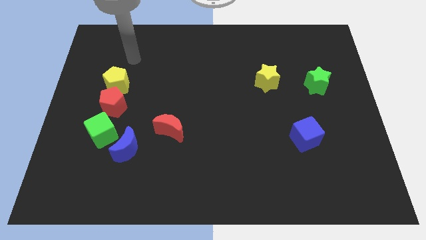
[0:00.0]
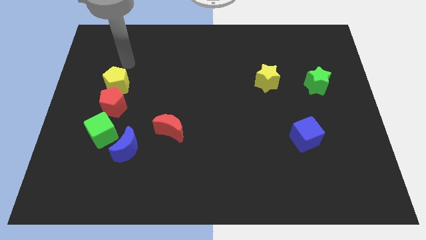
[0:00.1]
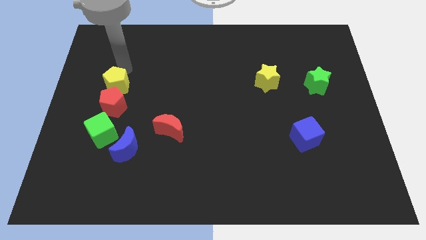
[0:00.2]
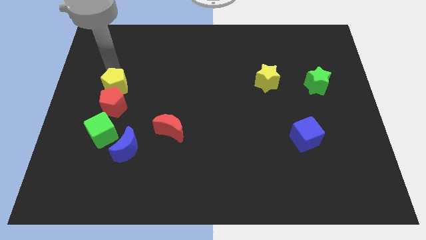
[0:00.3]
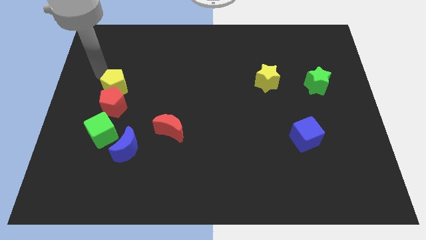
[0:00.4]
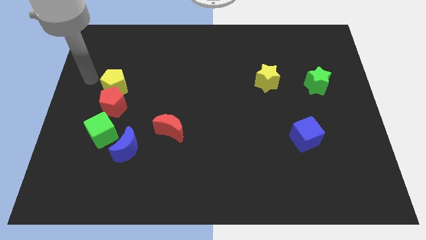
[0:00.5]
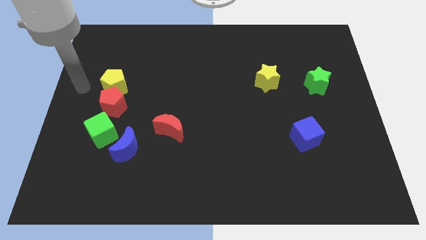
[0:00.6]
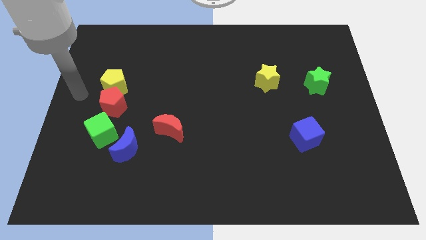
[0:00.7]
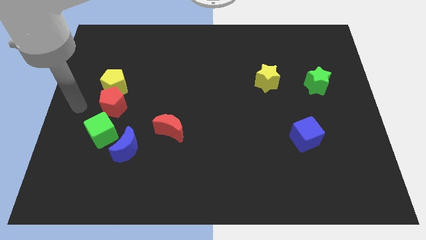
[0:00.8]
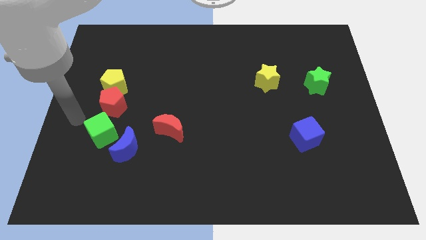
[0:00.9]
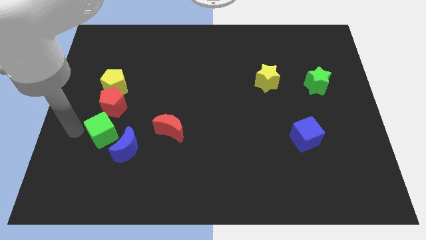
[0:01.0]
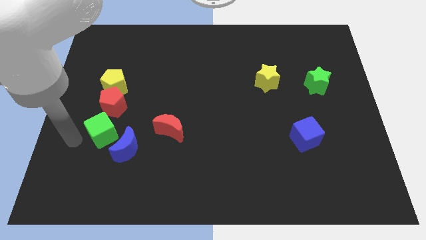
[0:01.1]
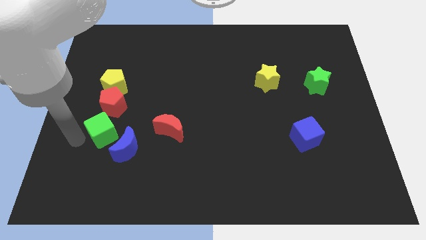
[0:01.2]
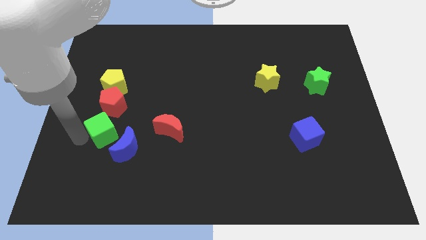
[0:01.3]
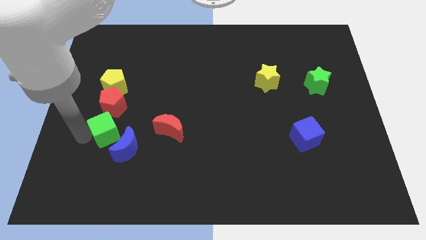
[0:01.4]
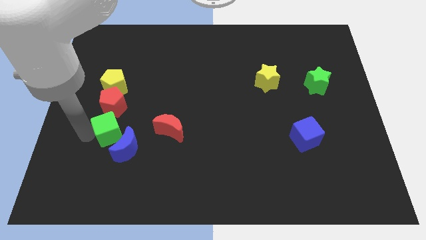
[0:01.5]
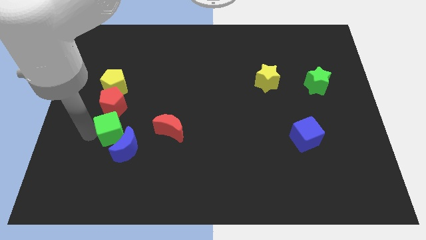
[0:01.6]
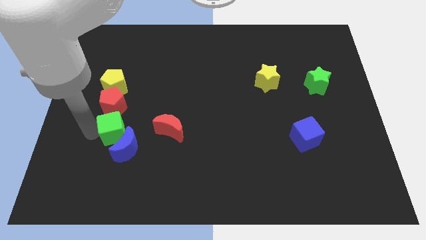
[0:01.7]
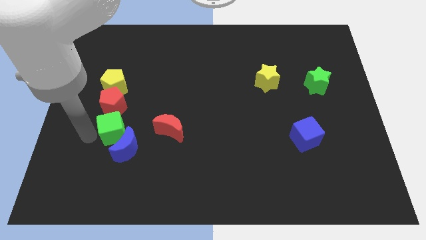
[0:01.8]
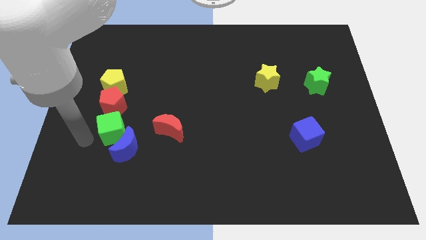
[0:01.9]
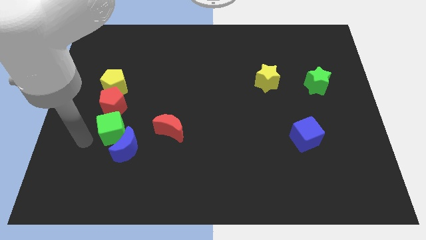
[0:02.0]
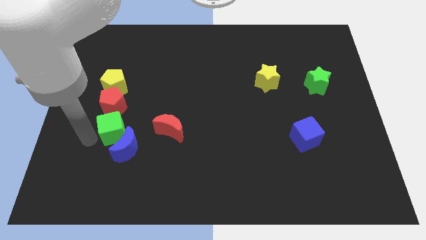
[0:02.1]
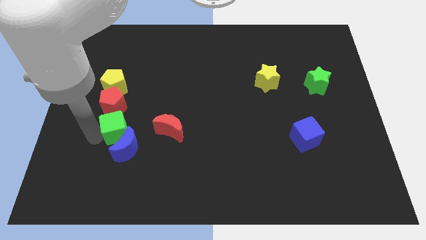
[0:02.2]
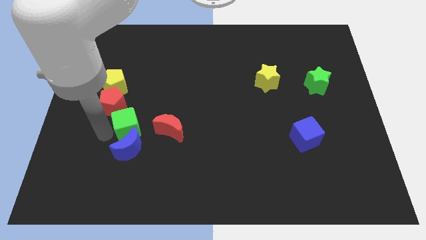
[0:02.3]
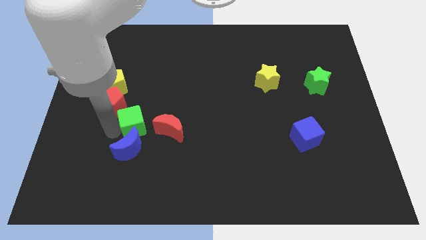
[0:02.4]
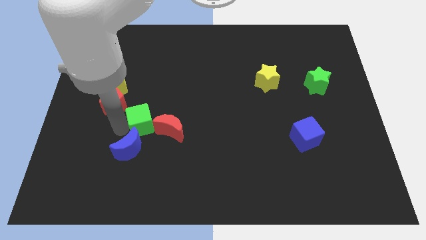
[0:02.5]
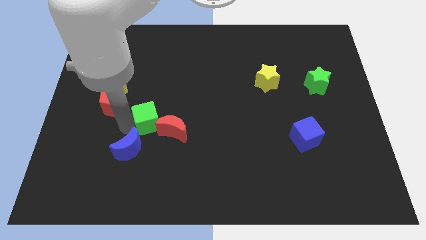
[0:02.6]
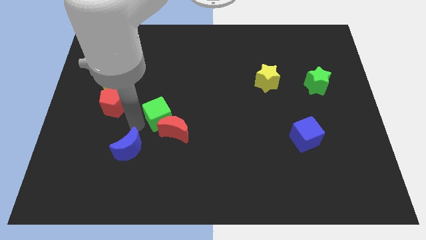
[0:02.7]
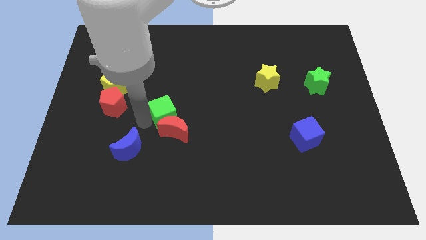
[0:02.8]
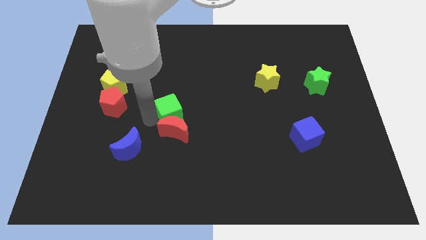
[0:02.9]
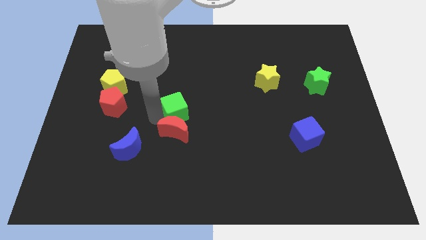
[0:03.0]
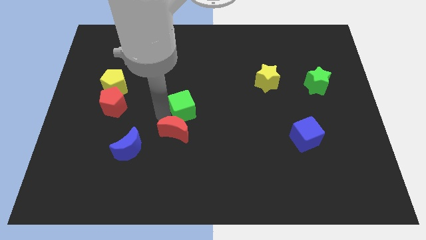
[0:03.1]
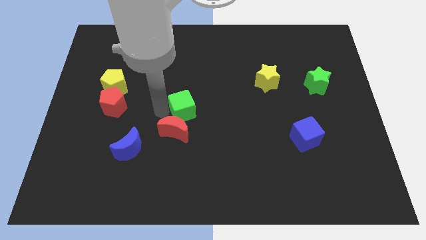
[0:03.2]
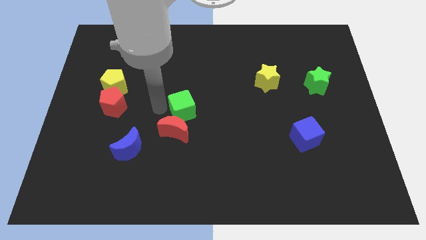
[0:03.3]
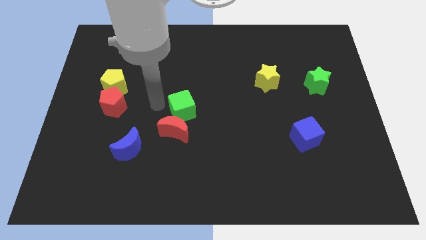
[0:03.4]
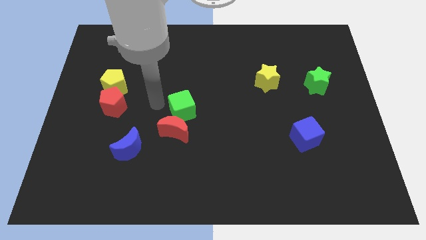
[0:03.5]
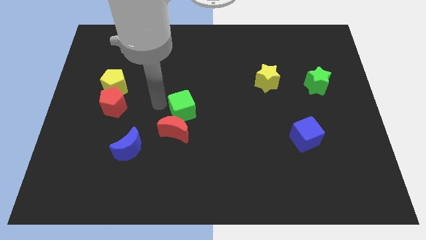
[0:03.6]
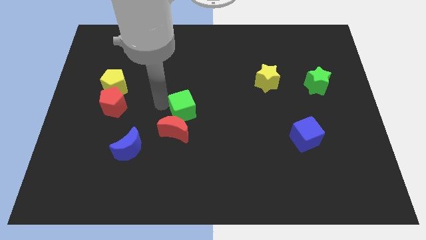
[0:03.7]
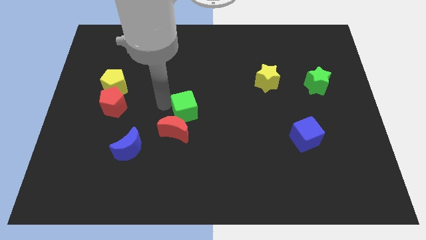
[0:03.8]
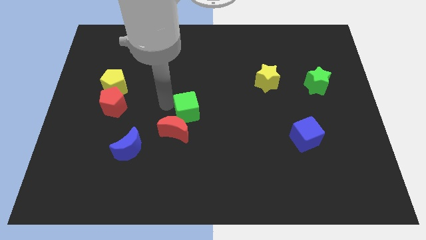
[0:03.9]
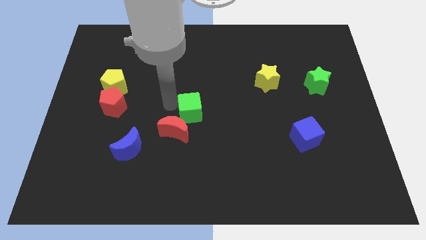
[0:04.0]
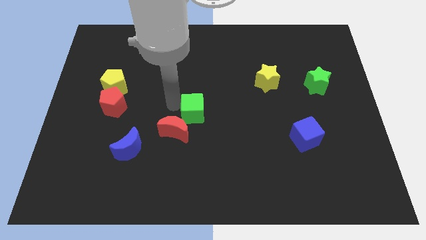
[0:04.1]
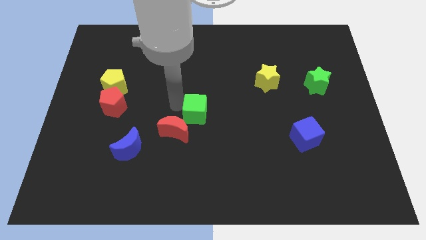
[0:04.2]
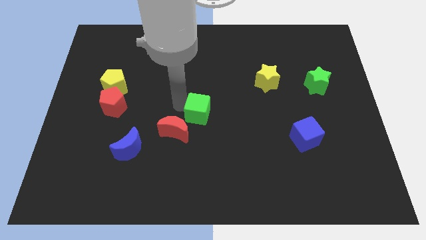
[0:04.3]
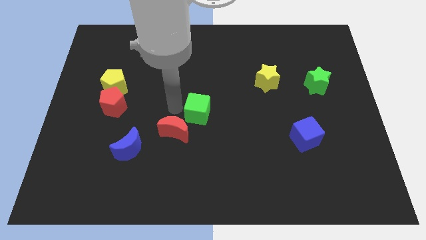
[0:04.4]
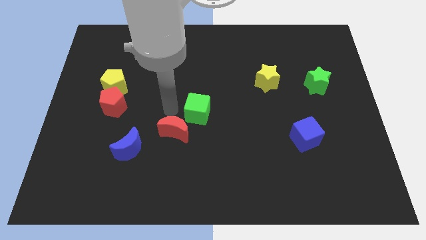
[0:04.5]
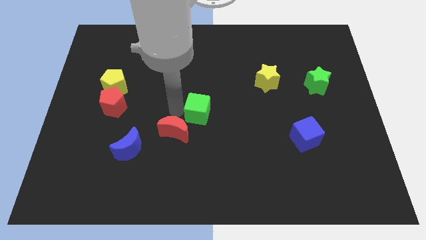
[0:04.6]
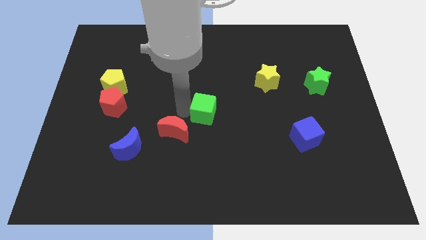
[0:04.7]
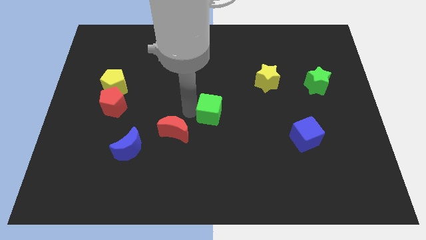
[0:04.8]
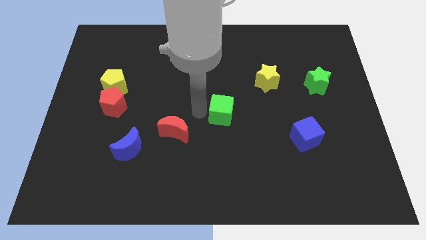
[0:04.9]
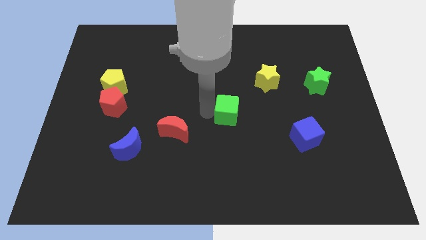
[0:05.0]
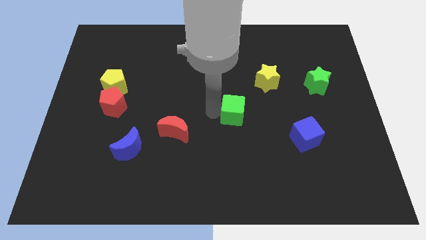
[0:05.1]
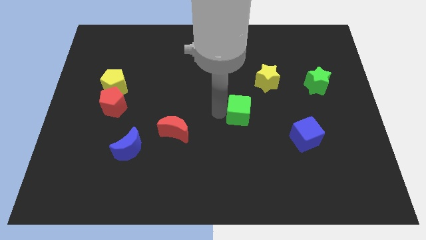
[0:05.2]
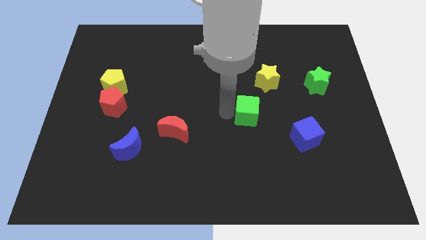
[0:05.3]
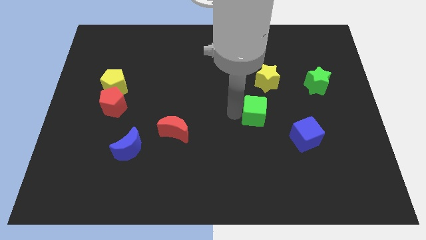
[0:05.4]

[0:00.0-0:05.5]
put the green cube below the yellow star

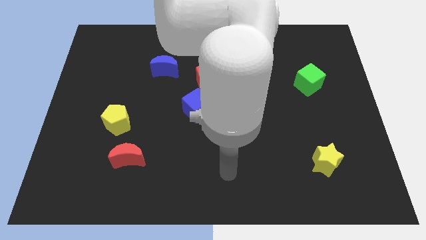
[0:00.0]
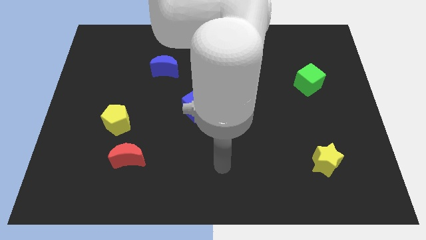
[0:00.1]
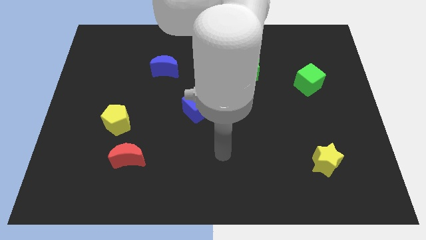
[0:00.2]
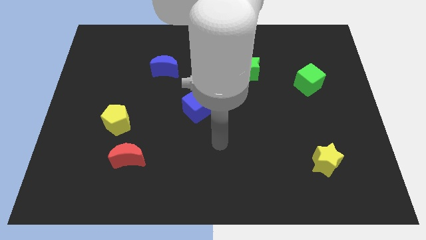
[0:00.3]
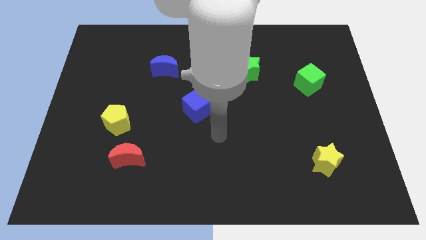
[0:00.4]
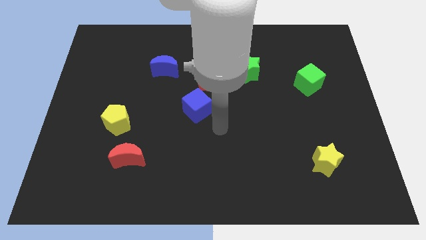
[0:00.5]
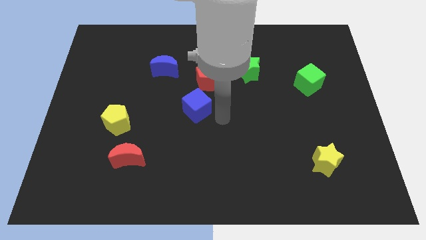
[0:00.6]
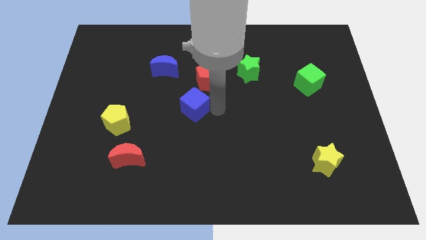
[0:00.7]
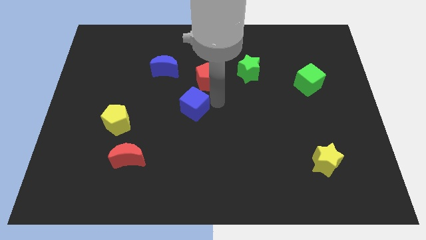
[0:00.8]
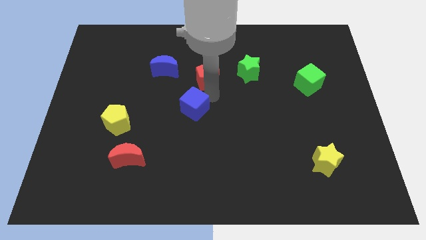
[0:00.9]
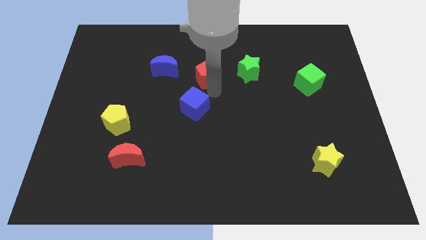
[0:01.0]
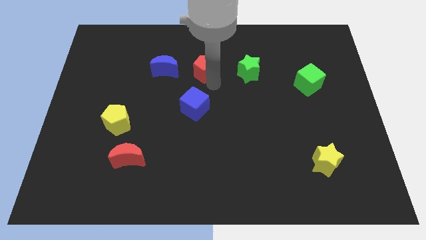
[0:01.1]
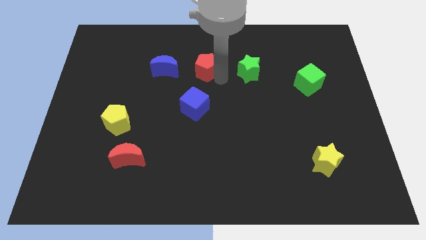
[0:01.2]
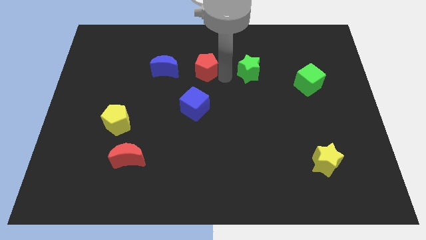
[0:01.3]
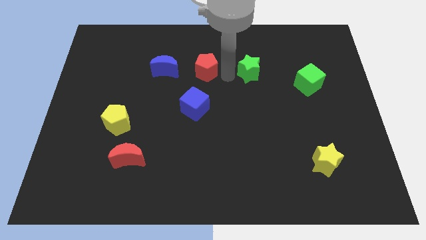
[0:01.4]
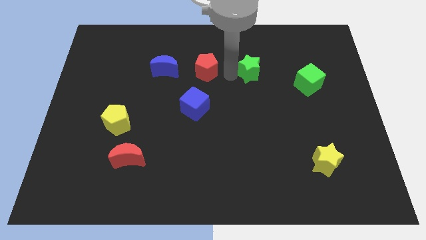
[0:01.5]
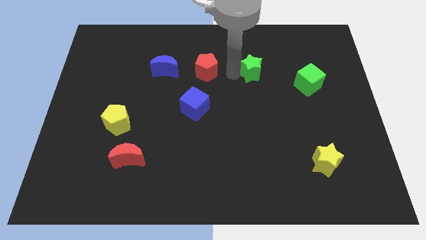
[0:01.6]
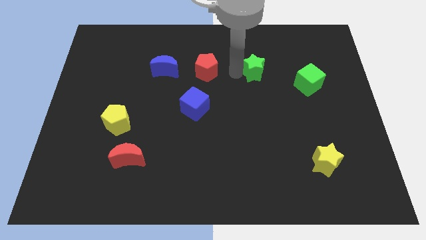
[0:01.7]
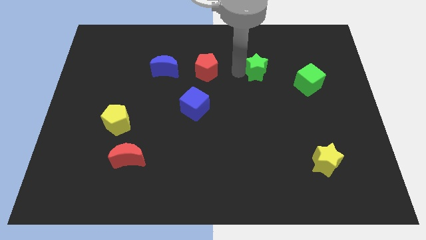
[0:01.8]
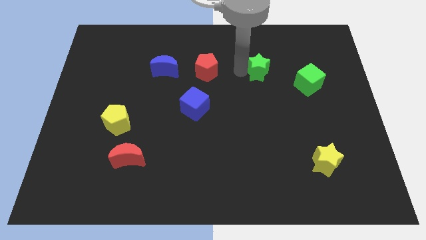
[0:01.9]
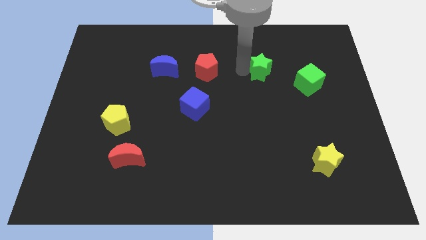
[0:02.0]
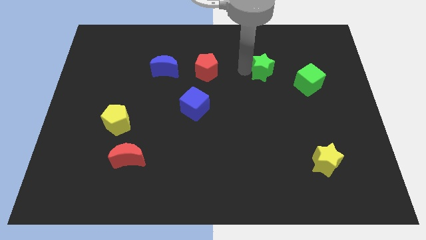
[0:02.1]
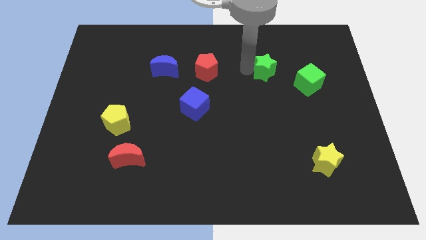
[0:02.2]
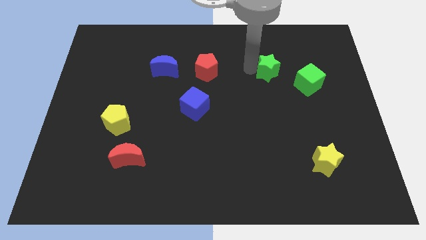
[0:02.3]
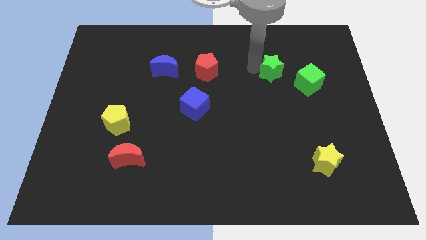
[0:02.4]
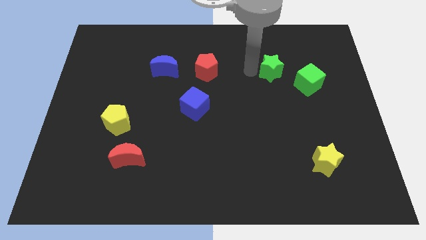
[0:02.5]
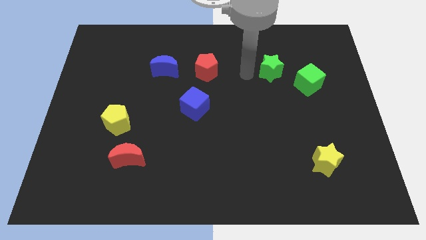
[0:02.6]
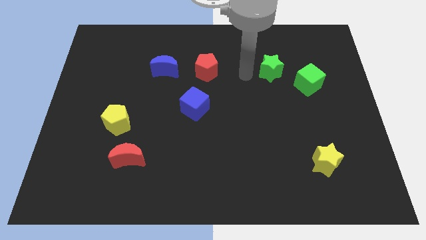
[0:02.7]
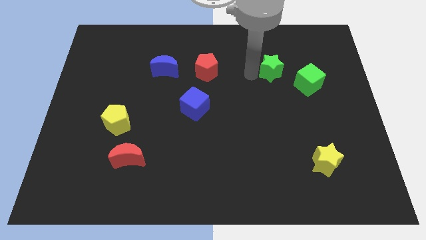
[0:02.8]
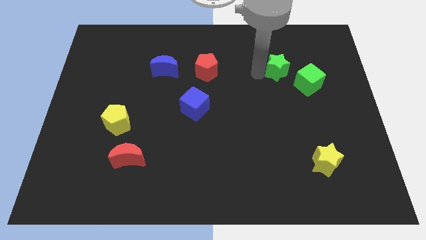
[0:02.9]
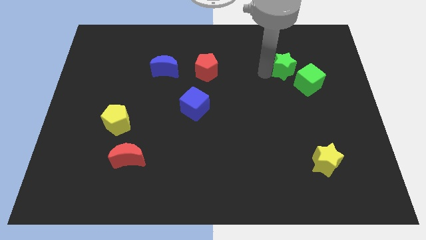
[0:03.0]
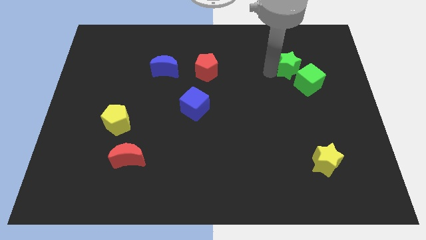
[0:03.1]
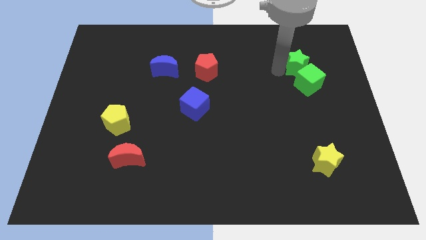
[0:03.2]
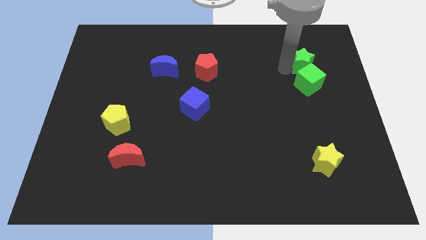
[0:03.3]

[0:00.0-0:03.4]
put the green star diagonally up and to the right of the green cube
